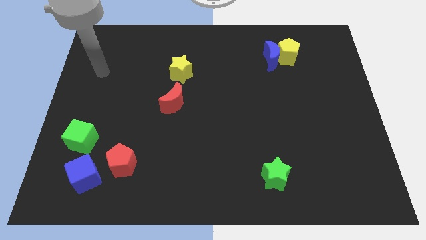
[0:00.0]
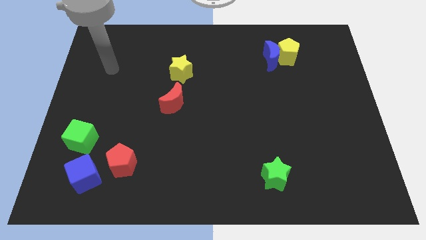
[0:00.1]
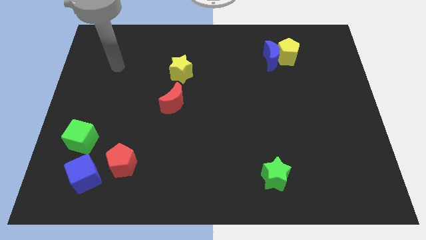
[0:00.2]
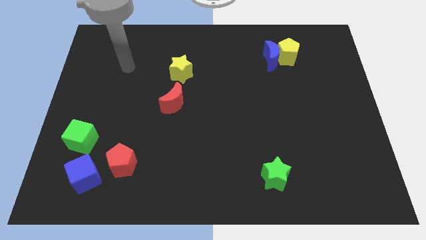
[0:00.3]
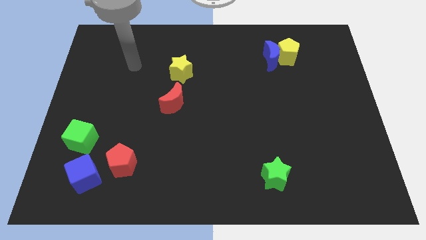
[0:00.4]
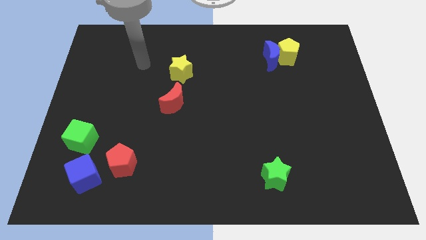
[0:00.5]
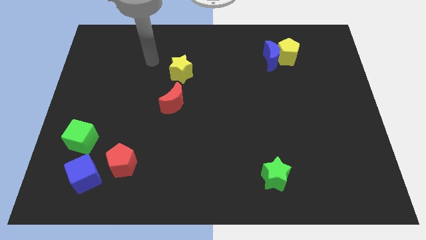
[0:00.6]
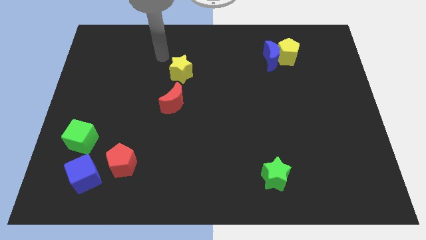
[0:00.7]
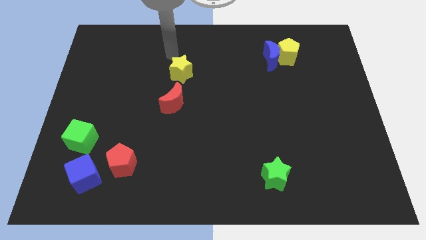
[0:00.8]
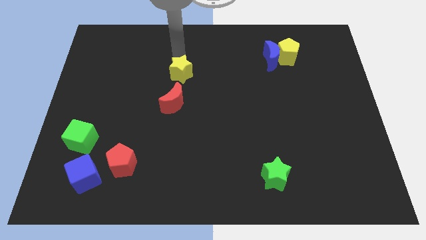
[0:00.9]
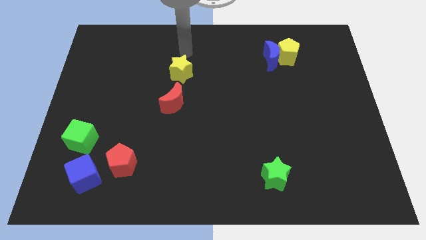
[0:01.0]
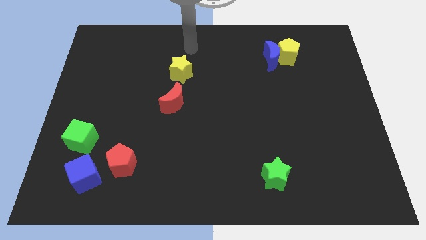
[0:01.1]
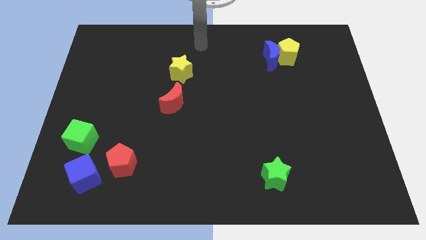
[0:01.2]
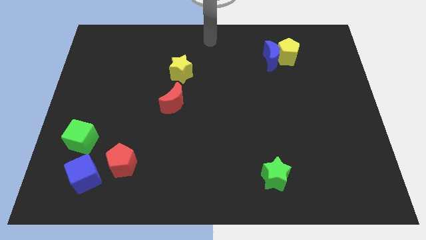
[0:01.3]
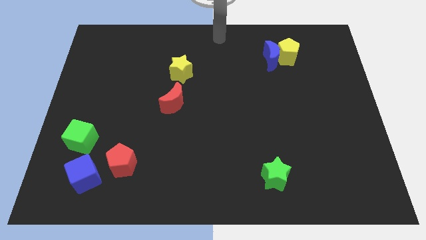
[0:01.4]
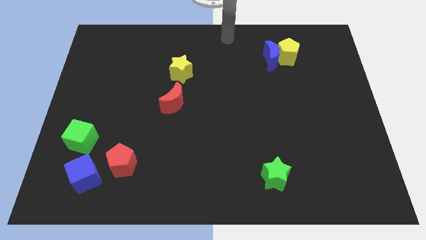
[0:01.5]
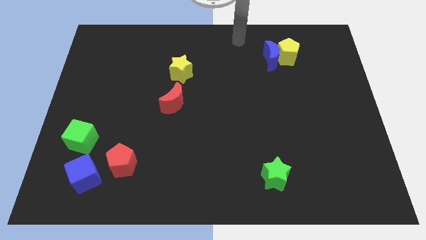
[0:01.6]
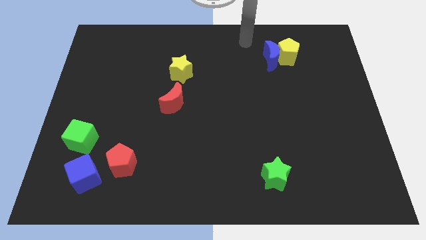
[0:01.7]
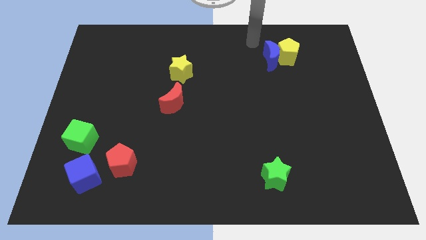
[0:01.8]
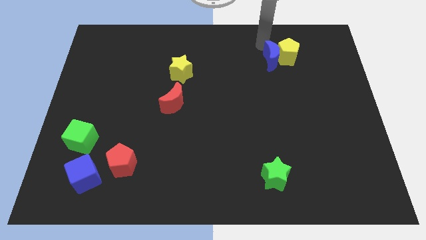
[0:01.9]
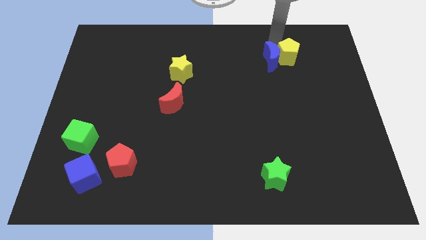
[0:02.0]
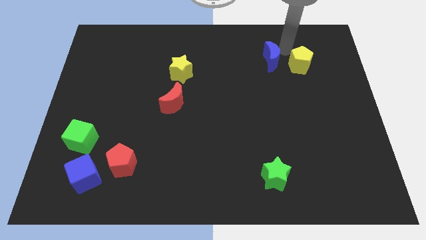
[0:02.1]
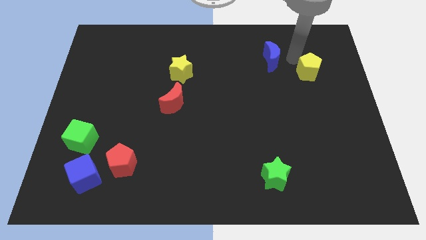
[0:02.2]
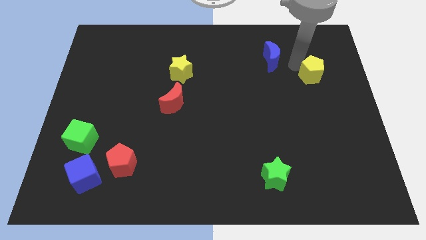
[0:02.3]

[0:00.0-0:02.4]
separate the blue moon from the yellow pentagon

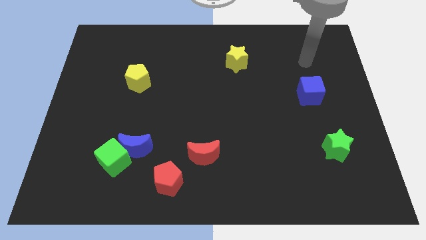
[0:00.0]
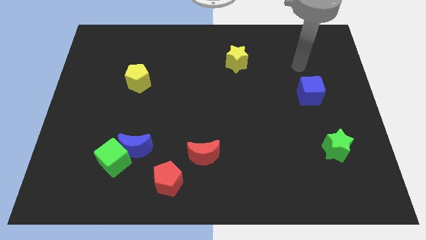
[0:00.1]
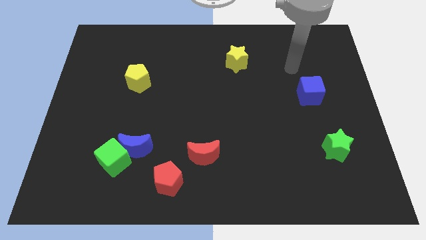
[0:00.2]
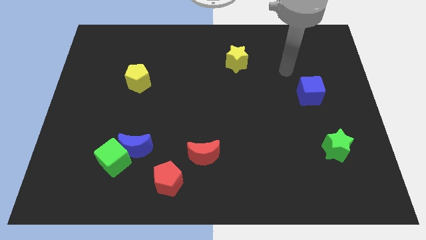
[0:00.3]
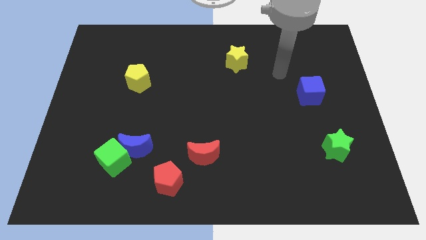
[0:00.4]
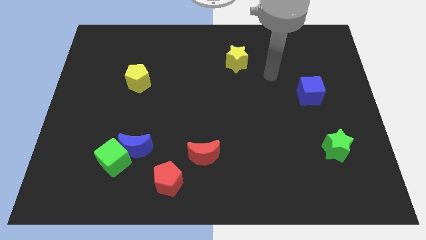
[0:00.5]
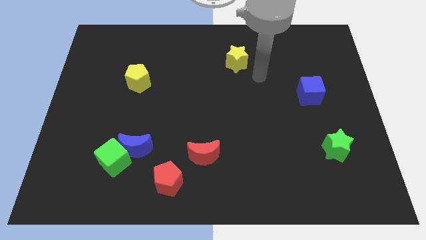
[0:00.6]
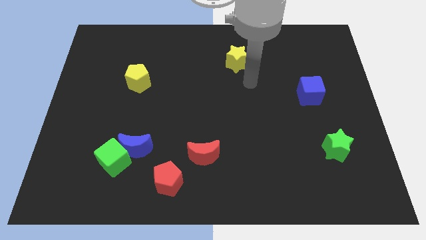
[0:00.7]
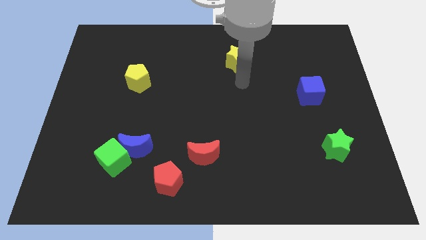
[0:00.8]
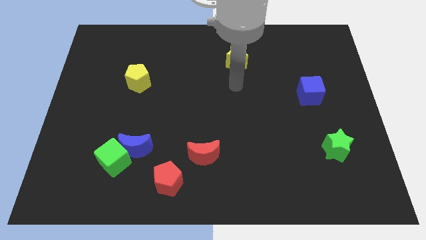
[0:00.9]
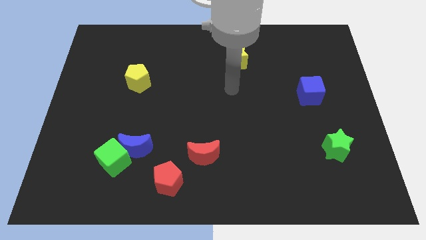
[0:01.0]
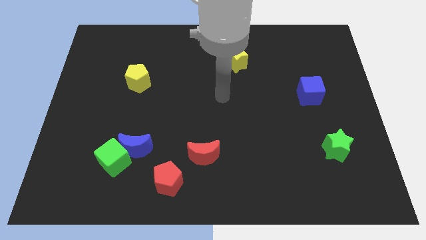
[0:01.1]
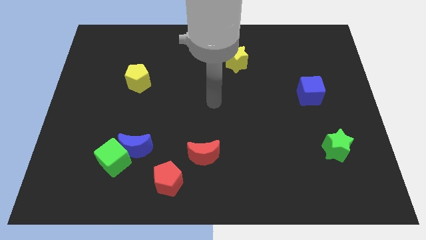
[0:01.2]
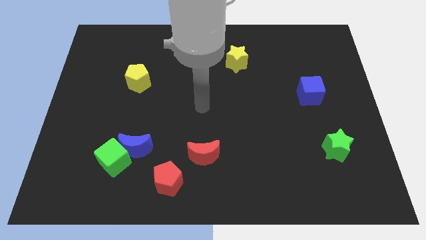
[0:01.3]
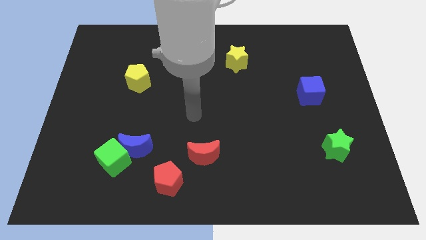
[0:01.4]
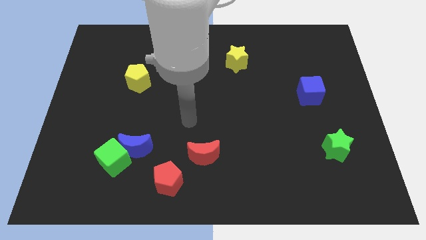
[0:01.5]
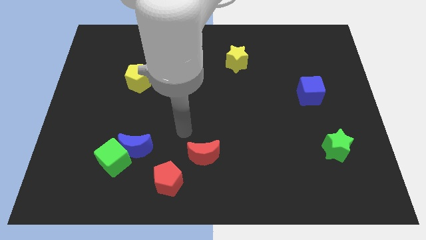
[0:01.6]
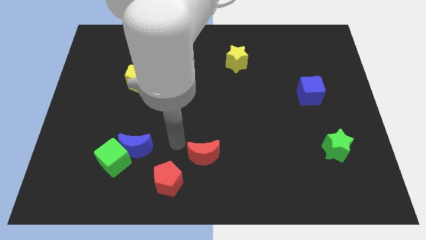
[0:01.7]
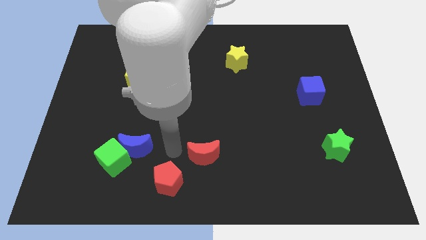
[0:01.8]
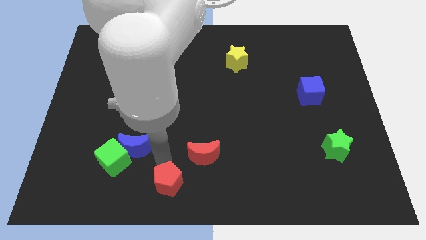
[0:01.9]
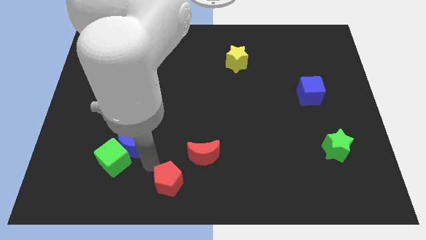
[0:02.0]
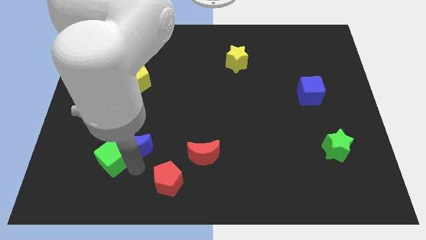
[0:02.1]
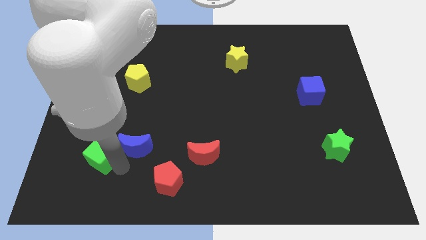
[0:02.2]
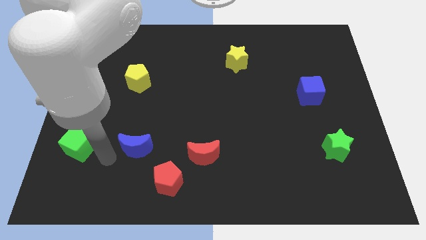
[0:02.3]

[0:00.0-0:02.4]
separate the blue moon from the green cube

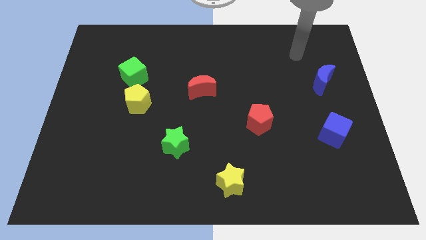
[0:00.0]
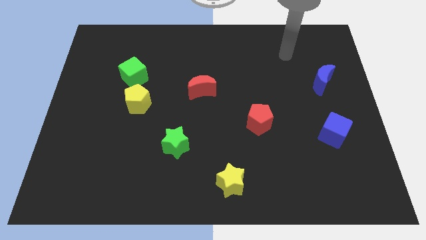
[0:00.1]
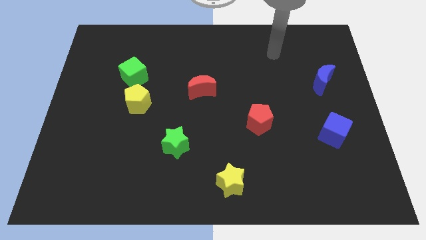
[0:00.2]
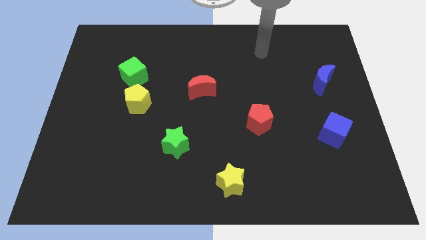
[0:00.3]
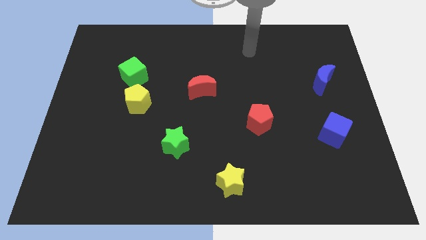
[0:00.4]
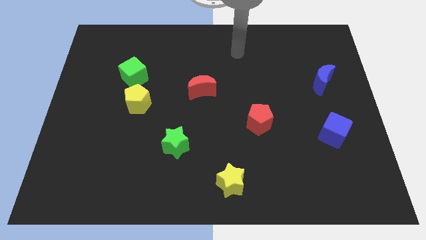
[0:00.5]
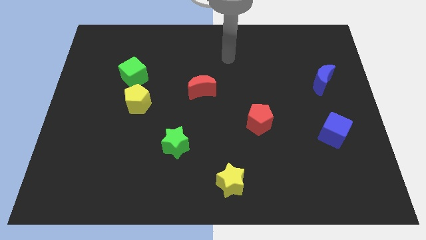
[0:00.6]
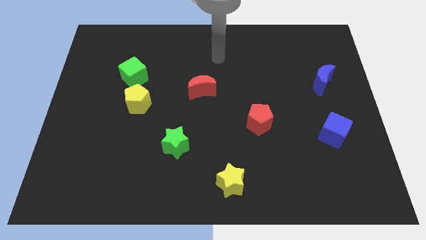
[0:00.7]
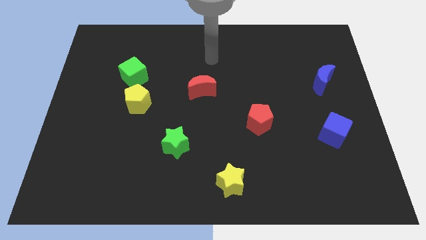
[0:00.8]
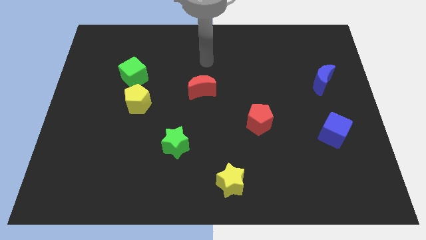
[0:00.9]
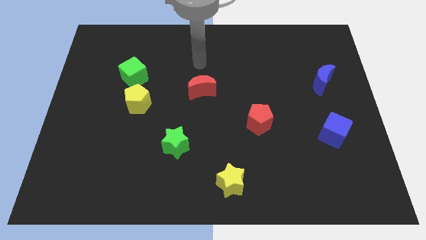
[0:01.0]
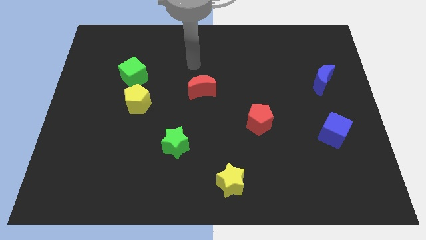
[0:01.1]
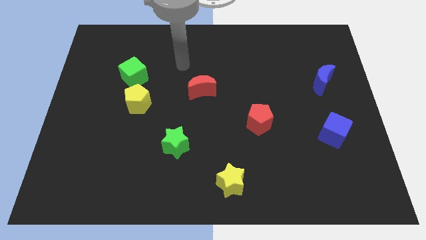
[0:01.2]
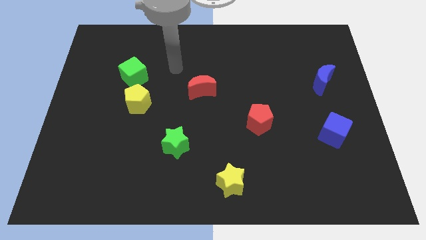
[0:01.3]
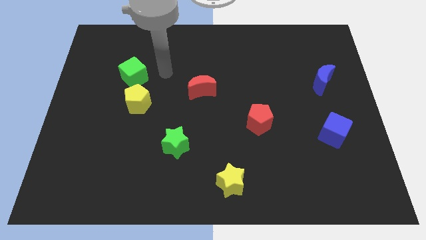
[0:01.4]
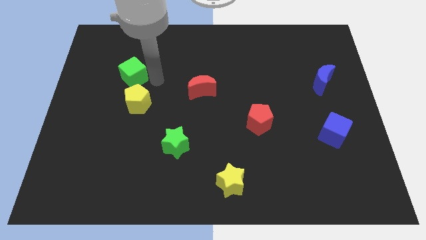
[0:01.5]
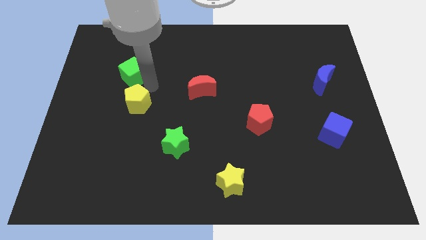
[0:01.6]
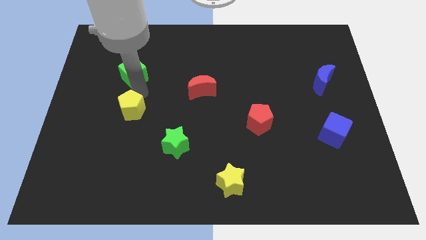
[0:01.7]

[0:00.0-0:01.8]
move the green cube away from the yellow pentagon

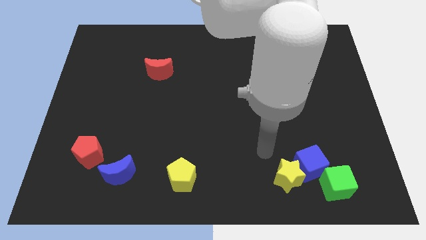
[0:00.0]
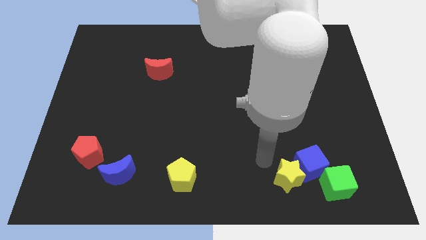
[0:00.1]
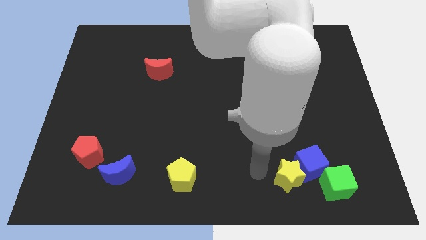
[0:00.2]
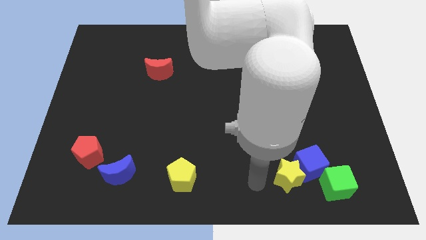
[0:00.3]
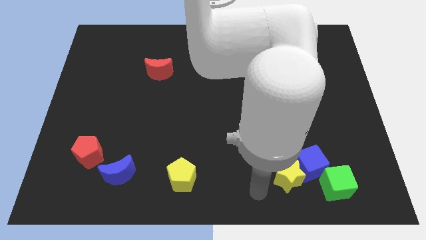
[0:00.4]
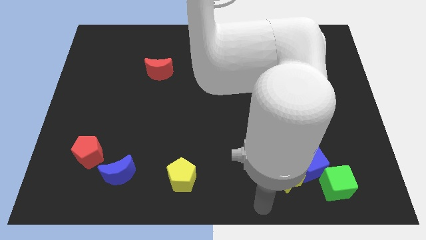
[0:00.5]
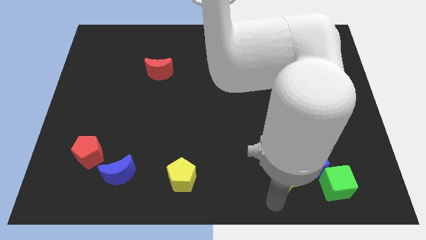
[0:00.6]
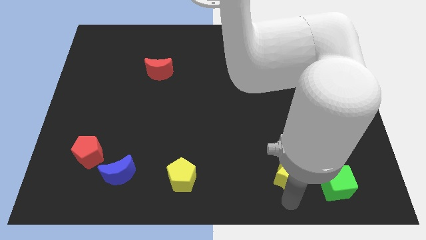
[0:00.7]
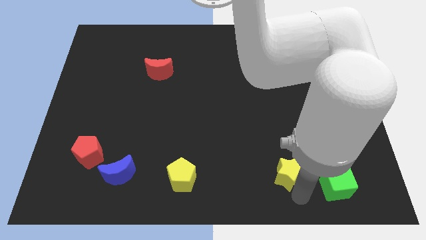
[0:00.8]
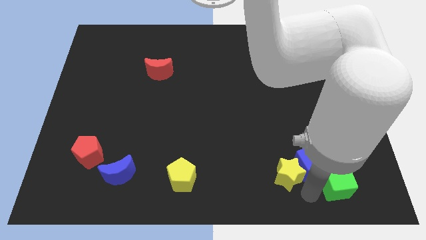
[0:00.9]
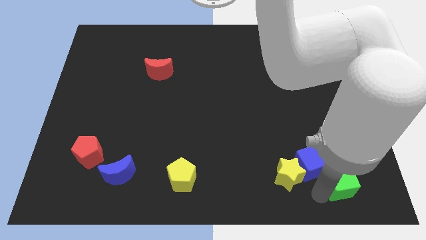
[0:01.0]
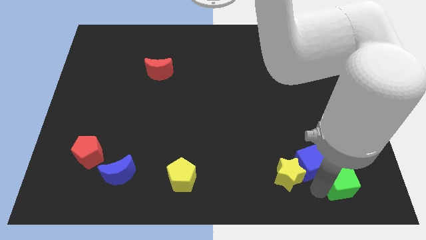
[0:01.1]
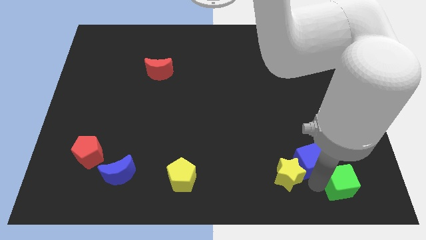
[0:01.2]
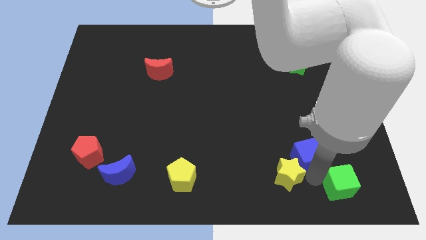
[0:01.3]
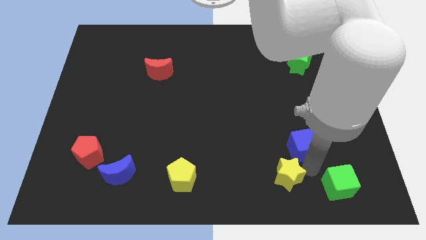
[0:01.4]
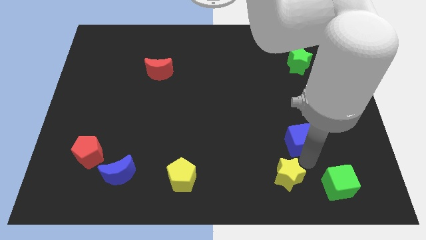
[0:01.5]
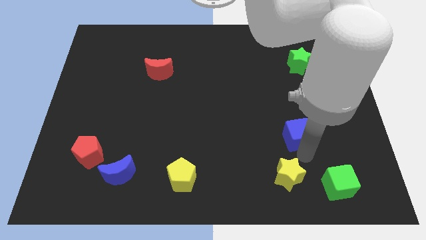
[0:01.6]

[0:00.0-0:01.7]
move the blue cube away from the yellow star and green cube

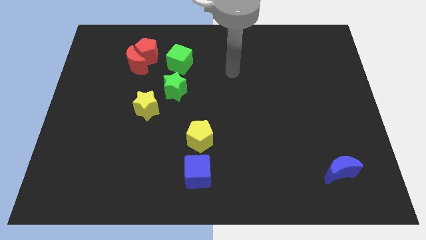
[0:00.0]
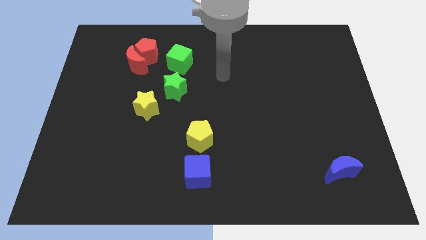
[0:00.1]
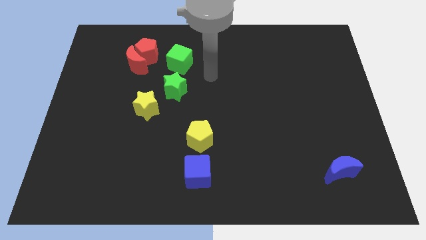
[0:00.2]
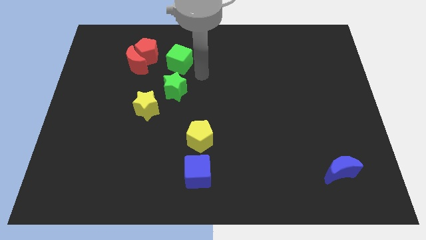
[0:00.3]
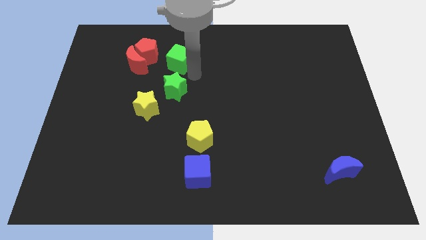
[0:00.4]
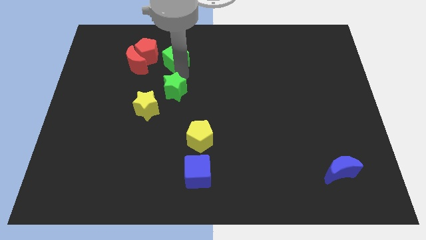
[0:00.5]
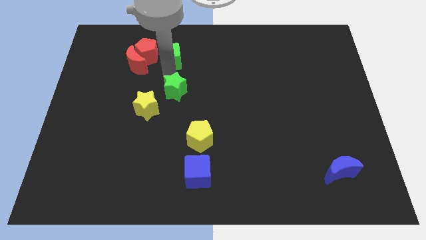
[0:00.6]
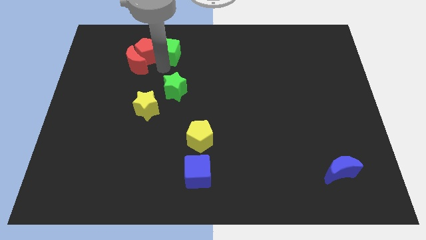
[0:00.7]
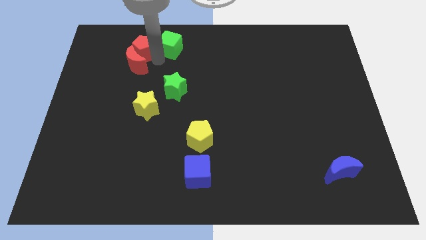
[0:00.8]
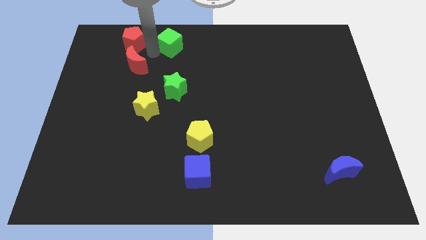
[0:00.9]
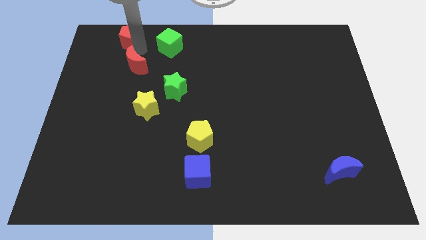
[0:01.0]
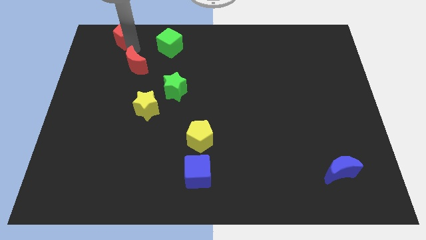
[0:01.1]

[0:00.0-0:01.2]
move the red moon away from the red pentagon
